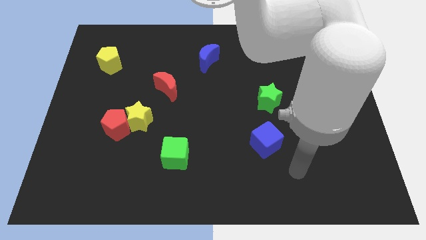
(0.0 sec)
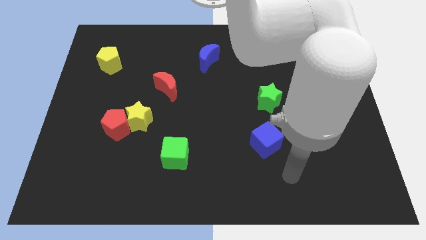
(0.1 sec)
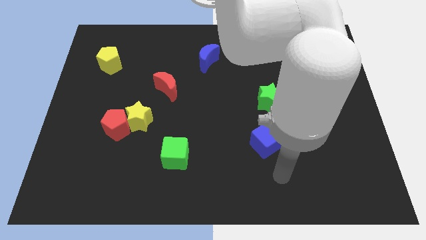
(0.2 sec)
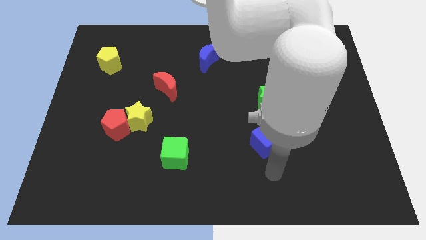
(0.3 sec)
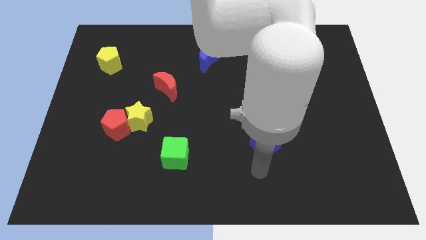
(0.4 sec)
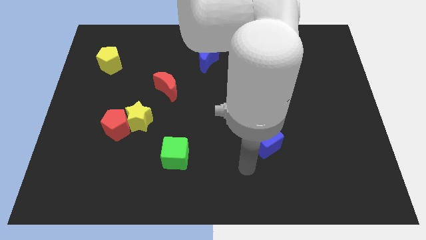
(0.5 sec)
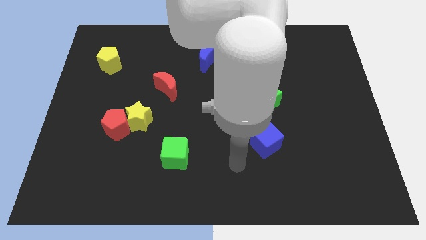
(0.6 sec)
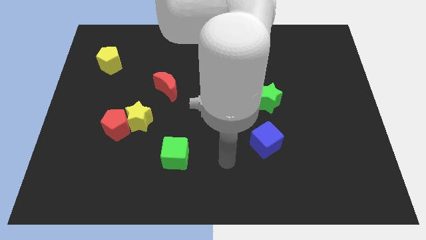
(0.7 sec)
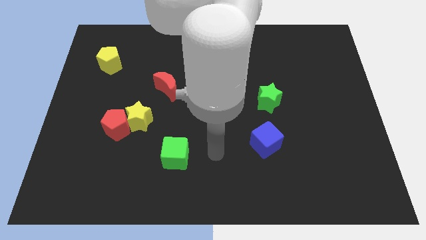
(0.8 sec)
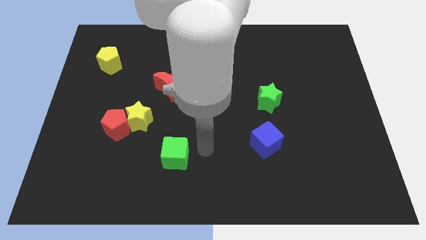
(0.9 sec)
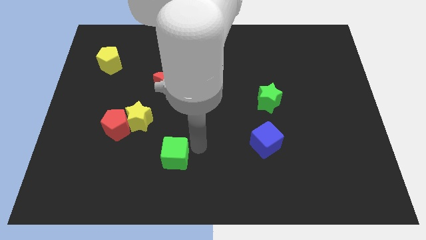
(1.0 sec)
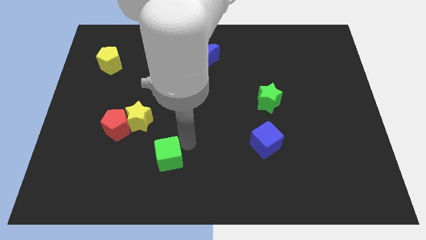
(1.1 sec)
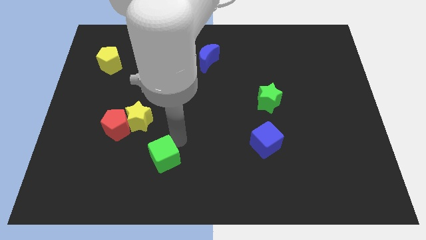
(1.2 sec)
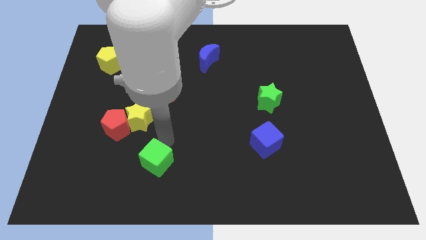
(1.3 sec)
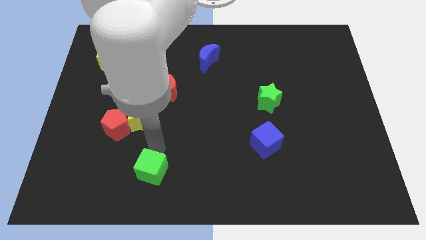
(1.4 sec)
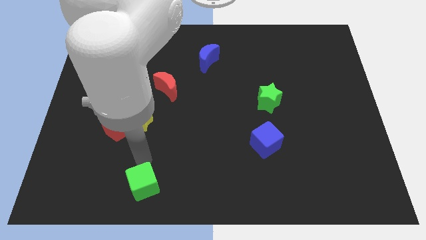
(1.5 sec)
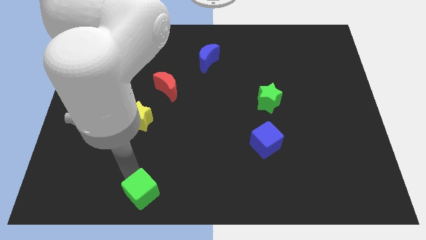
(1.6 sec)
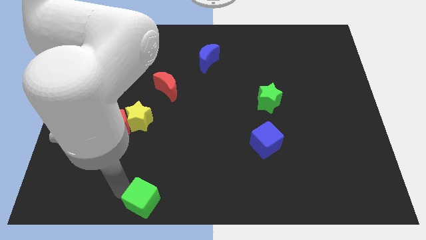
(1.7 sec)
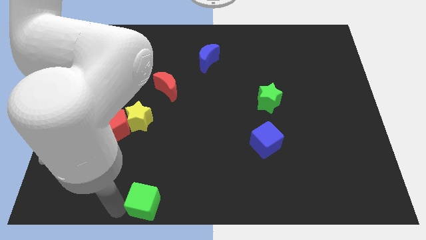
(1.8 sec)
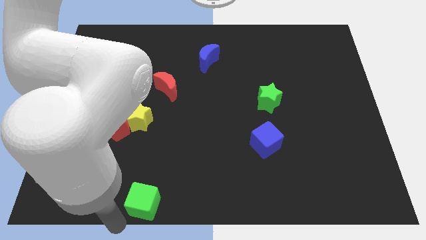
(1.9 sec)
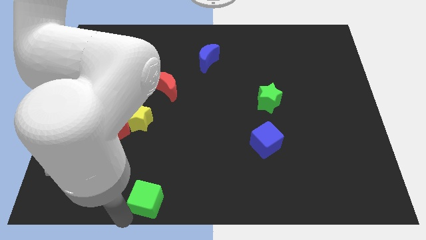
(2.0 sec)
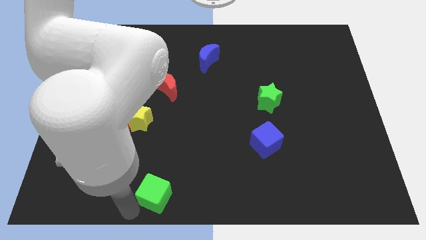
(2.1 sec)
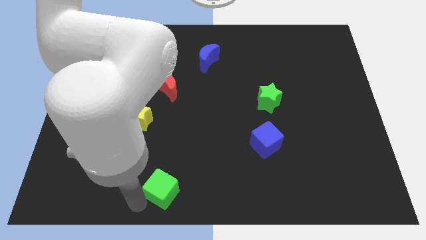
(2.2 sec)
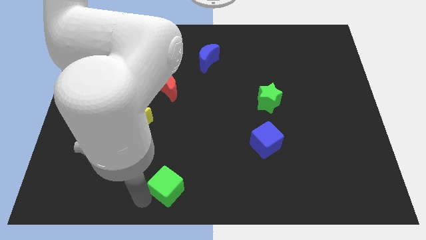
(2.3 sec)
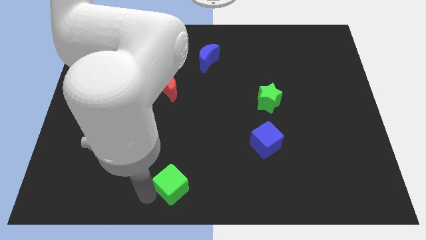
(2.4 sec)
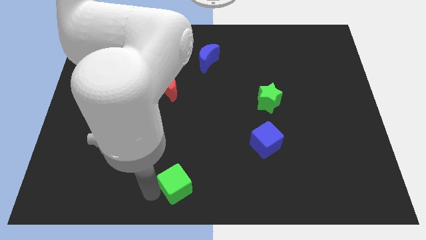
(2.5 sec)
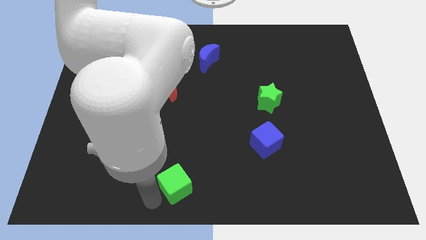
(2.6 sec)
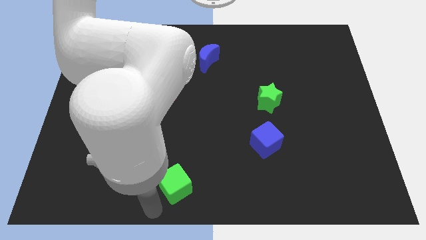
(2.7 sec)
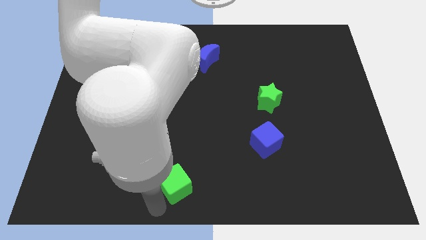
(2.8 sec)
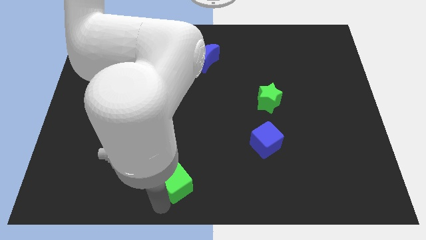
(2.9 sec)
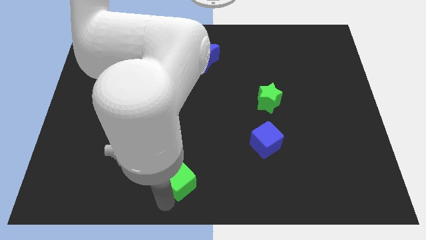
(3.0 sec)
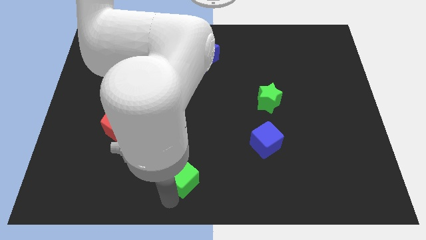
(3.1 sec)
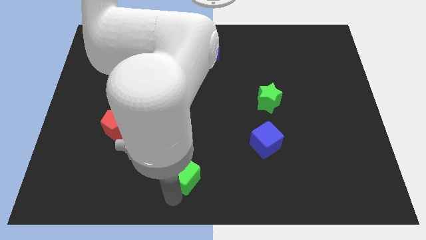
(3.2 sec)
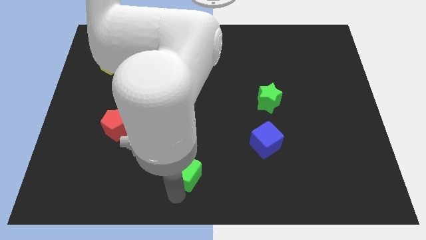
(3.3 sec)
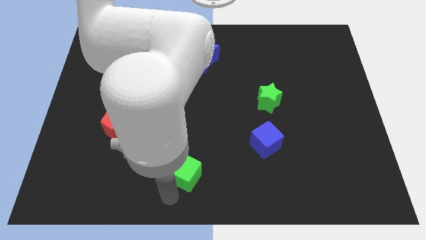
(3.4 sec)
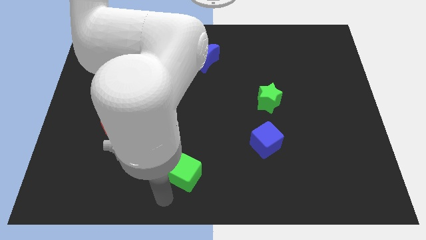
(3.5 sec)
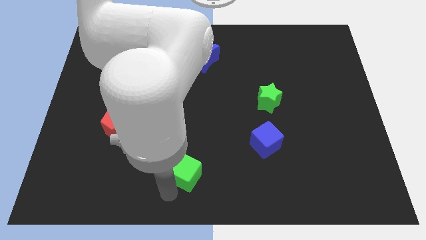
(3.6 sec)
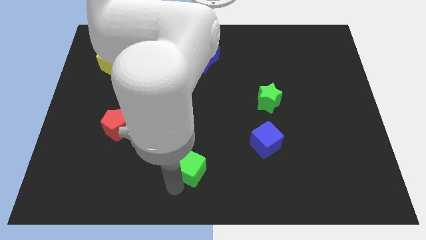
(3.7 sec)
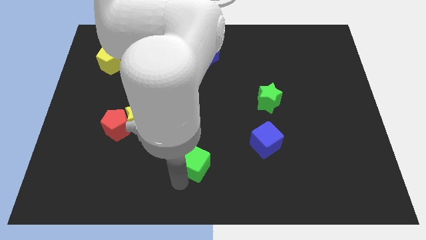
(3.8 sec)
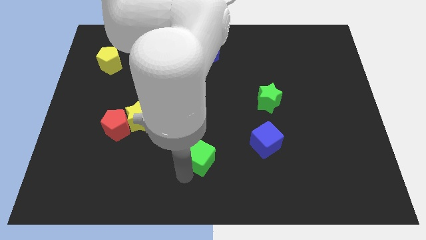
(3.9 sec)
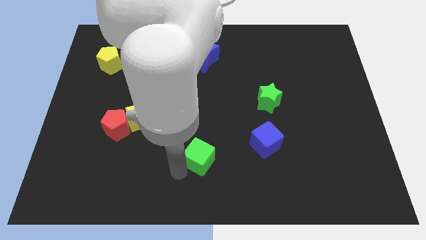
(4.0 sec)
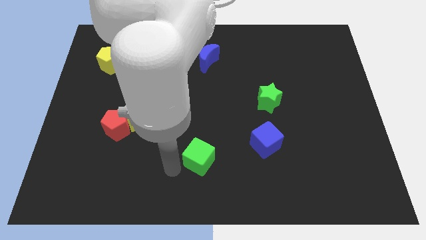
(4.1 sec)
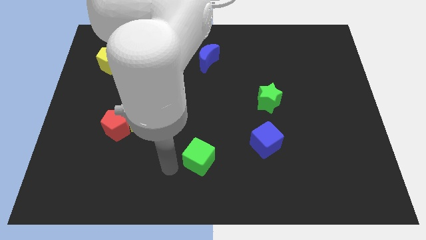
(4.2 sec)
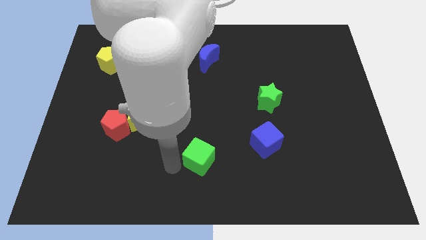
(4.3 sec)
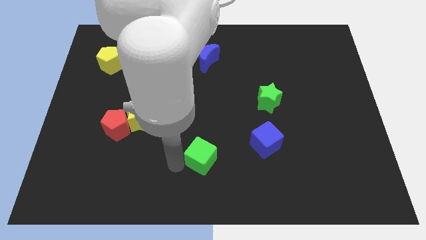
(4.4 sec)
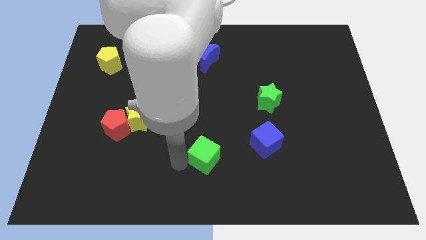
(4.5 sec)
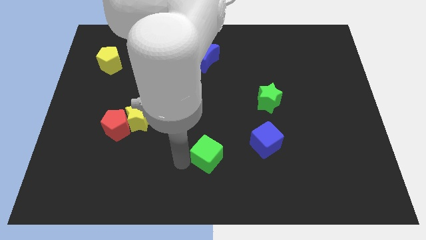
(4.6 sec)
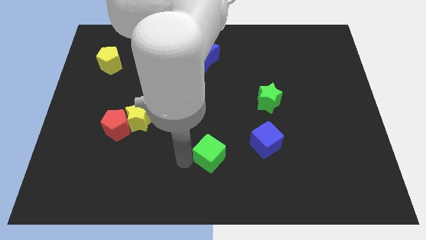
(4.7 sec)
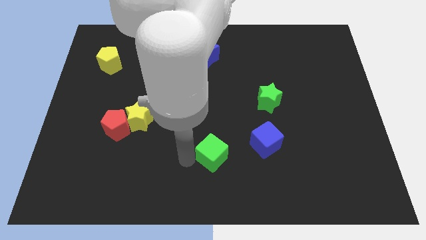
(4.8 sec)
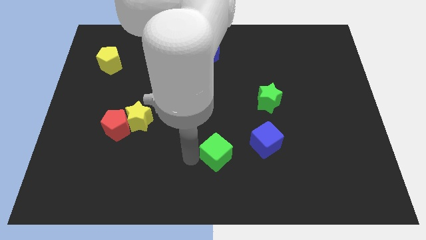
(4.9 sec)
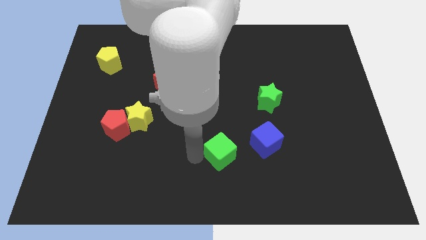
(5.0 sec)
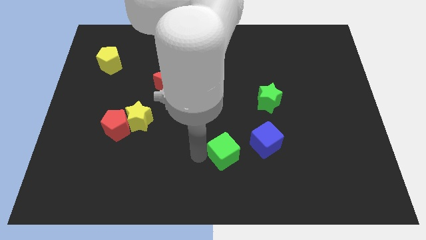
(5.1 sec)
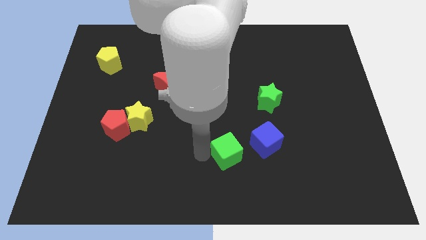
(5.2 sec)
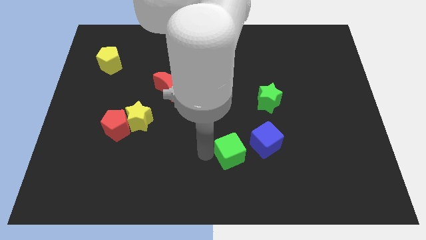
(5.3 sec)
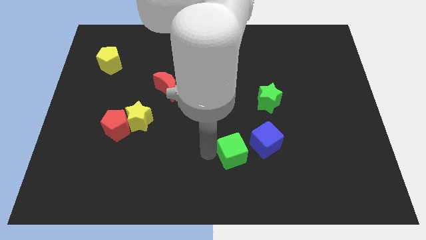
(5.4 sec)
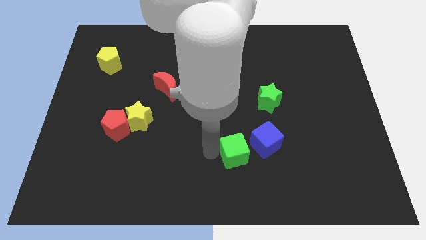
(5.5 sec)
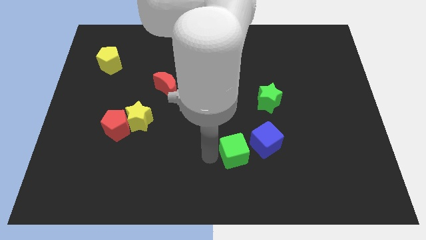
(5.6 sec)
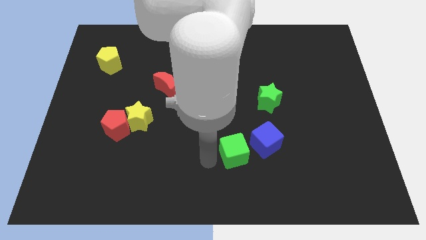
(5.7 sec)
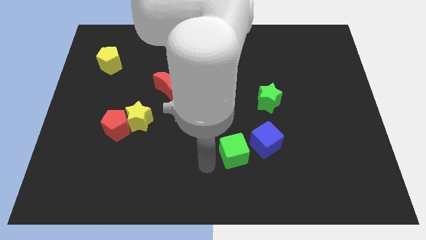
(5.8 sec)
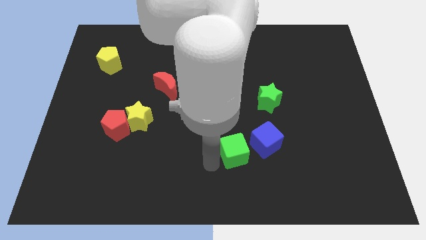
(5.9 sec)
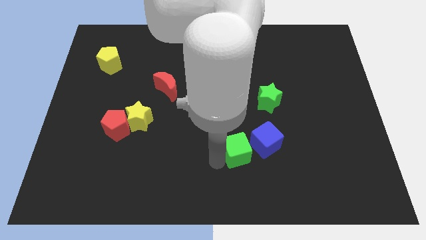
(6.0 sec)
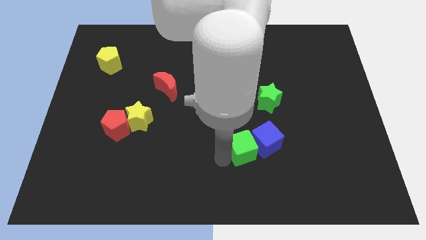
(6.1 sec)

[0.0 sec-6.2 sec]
put the green cube next to the blue cube
